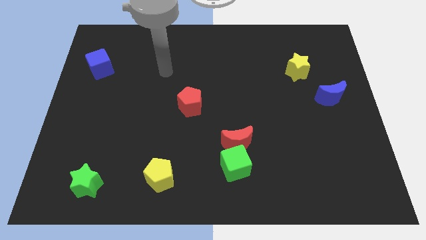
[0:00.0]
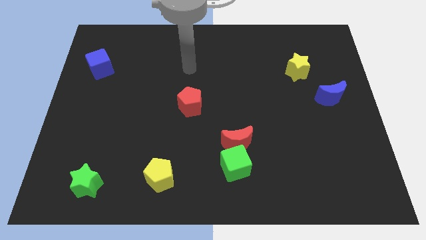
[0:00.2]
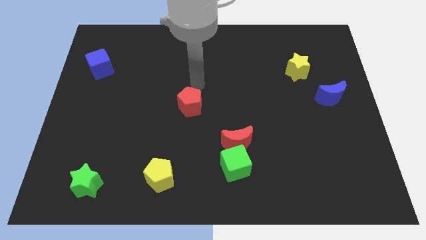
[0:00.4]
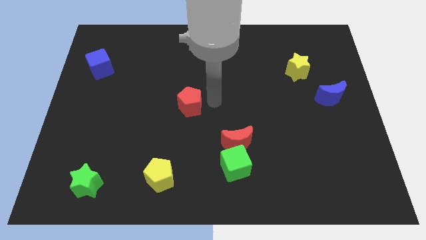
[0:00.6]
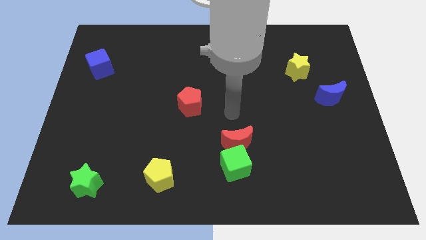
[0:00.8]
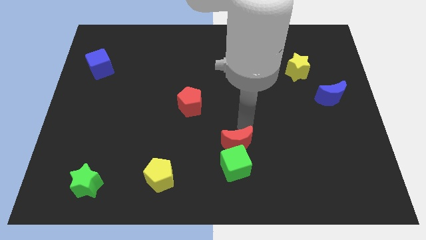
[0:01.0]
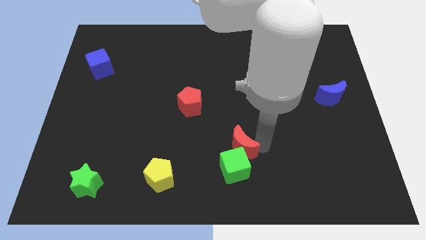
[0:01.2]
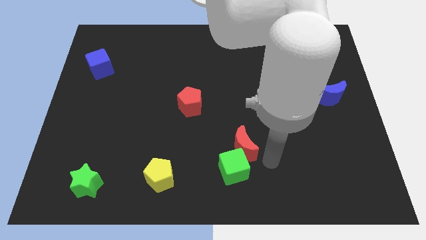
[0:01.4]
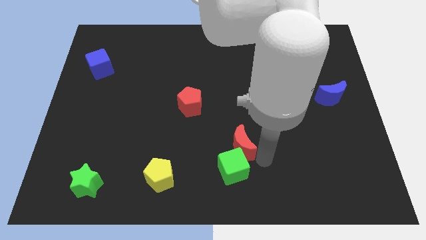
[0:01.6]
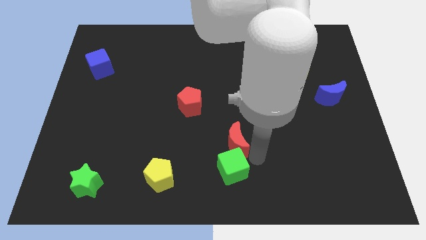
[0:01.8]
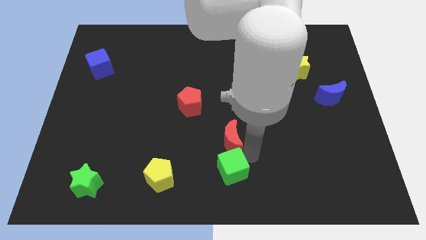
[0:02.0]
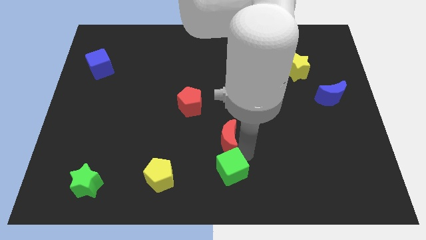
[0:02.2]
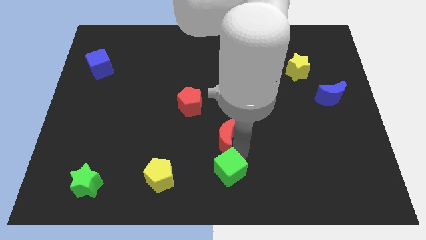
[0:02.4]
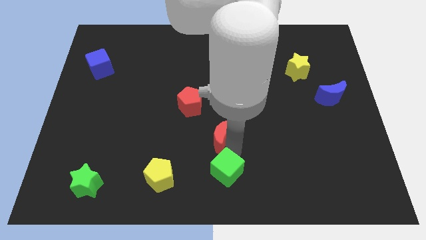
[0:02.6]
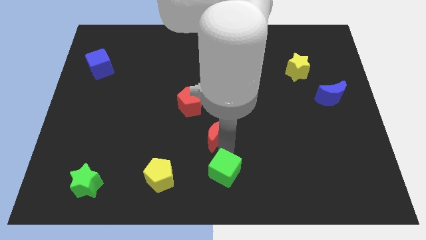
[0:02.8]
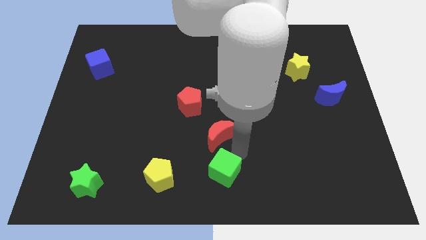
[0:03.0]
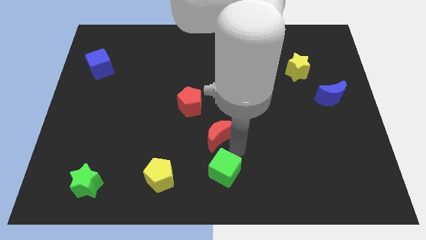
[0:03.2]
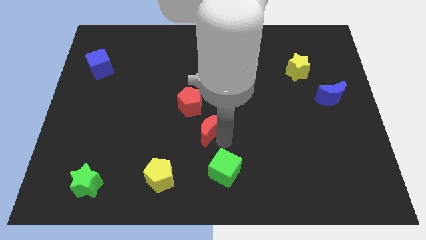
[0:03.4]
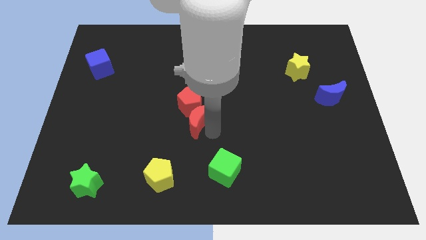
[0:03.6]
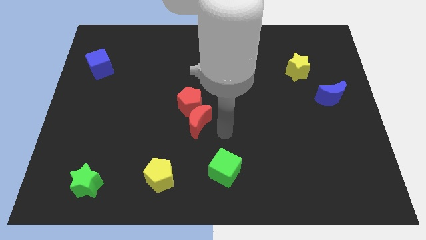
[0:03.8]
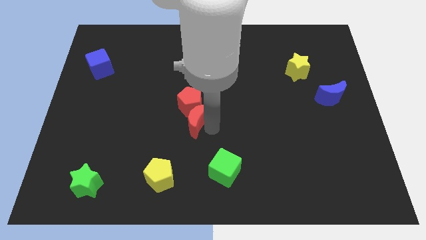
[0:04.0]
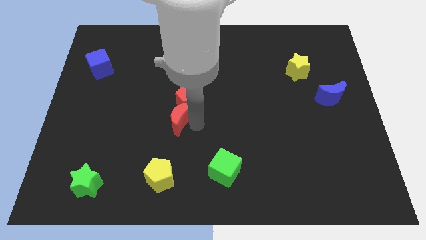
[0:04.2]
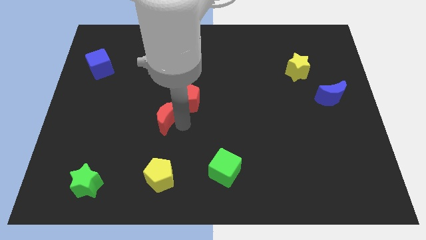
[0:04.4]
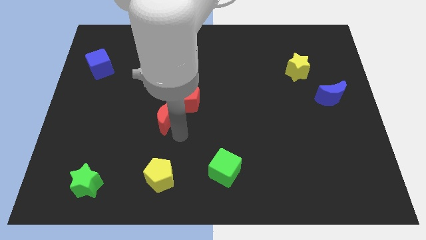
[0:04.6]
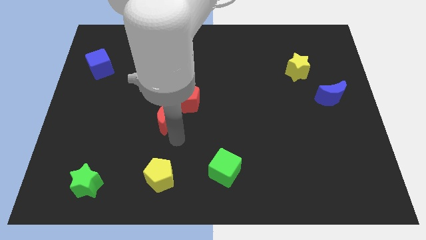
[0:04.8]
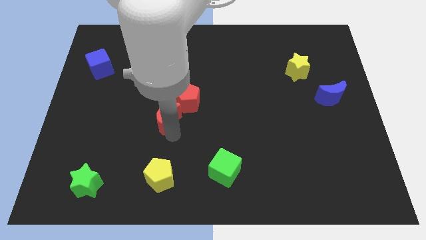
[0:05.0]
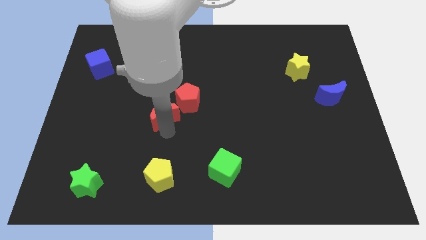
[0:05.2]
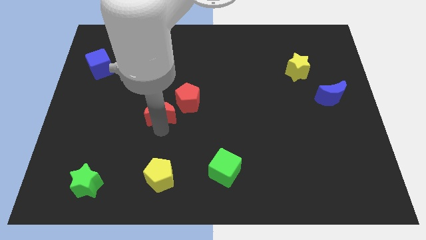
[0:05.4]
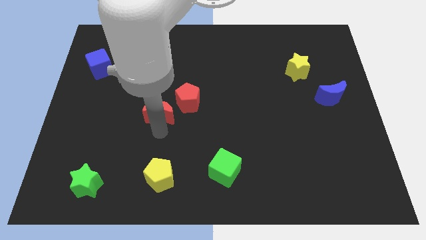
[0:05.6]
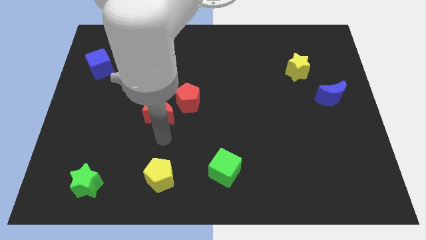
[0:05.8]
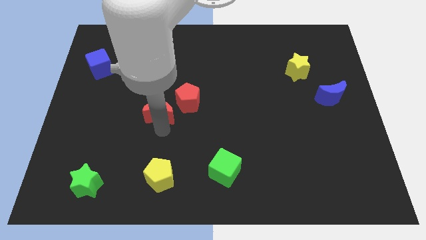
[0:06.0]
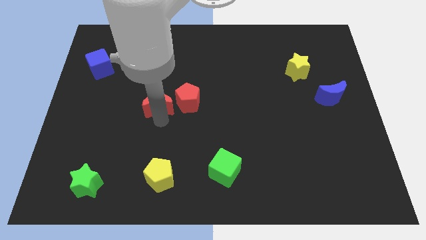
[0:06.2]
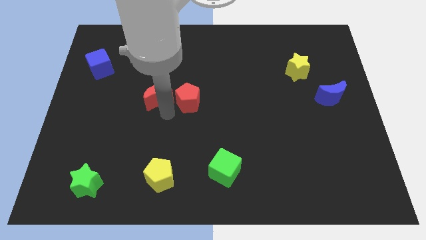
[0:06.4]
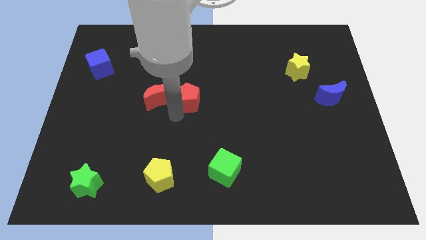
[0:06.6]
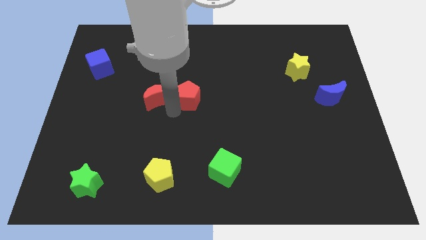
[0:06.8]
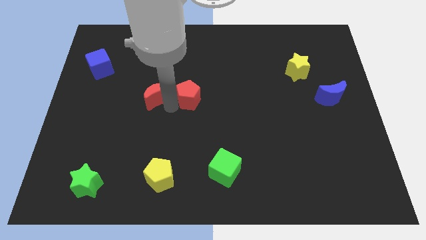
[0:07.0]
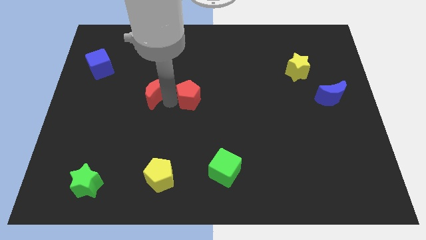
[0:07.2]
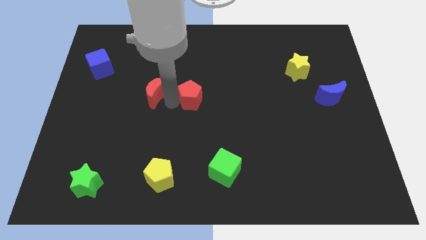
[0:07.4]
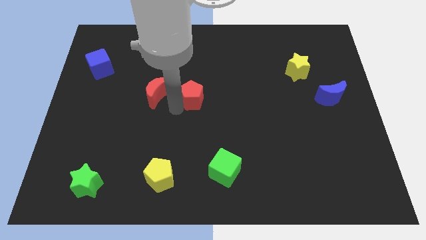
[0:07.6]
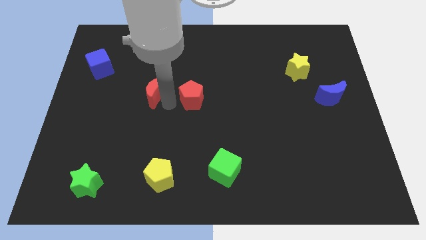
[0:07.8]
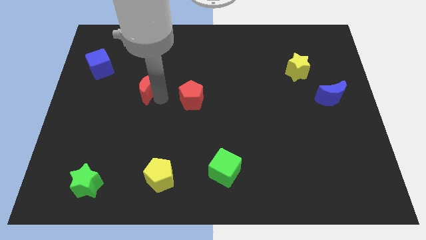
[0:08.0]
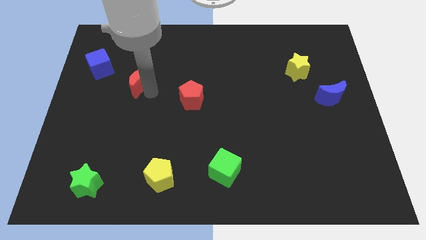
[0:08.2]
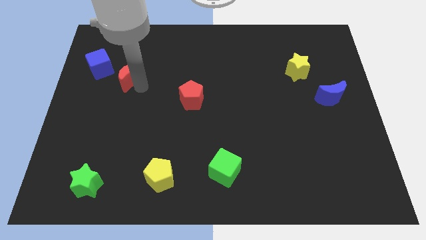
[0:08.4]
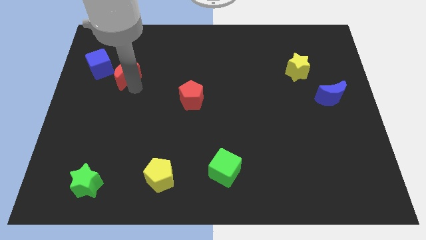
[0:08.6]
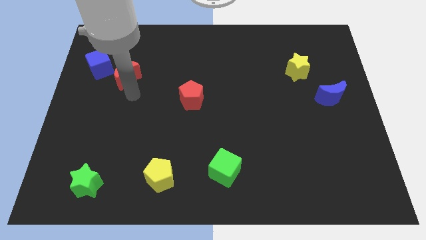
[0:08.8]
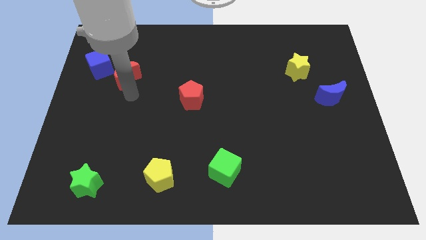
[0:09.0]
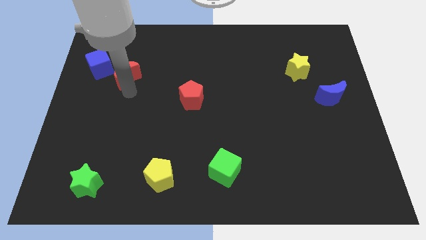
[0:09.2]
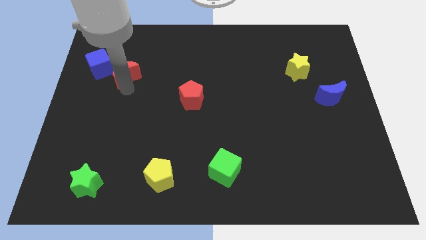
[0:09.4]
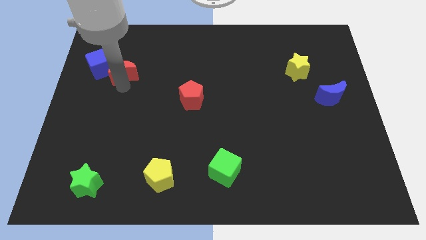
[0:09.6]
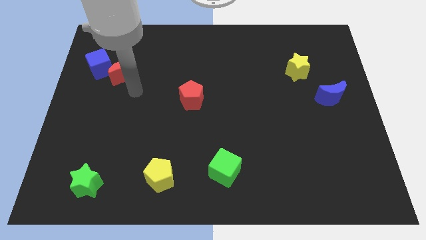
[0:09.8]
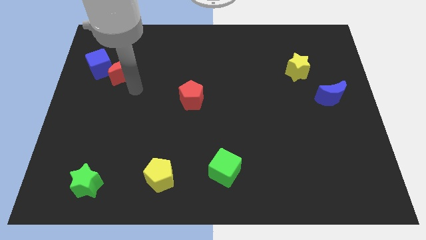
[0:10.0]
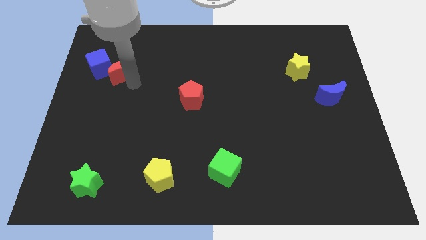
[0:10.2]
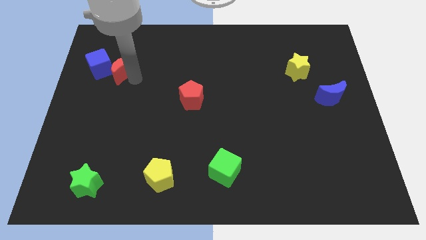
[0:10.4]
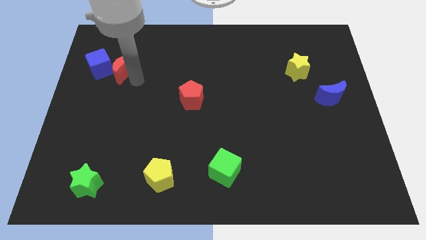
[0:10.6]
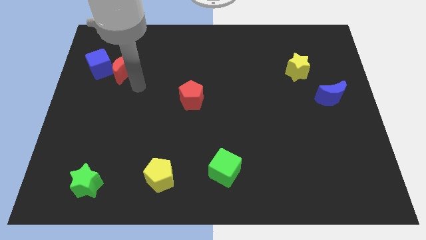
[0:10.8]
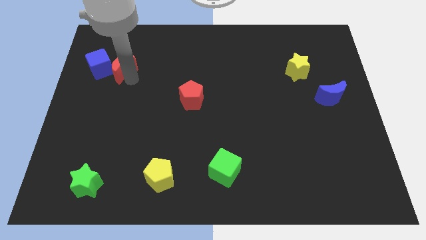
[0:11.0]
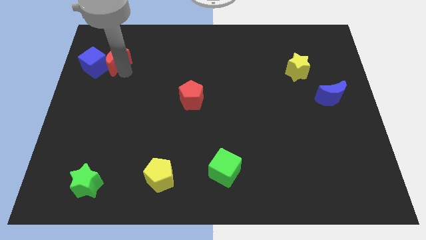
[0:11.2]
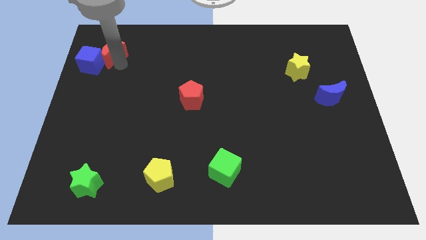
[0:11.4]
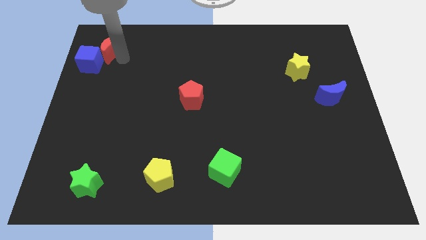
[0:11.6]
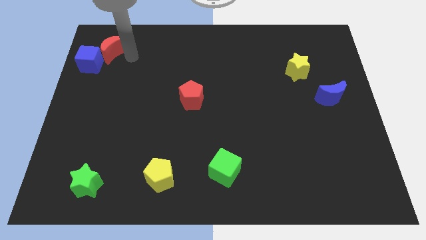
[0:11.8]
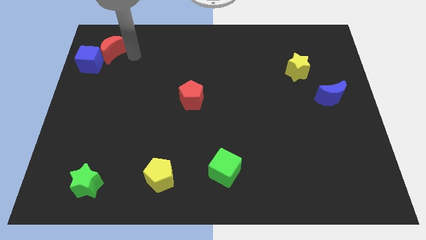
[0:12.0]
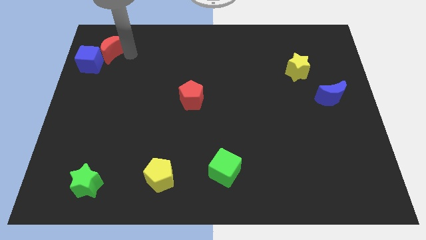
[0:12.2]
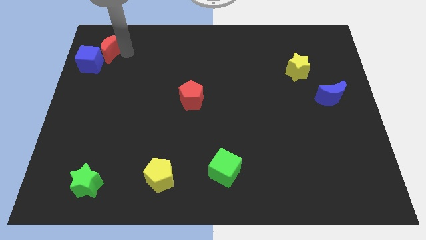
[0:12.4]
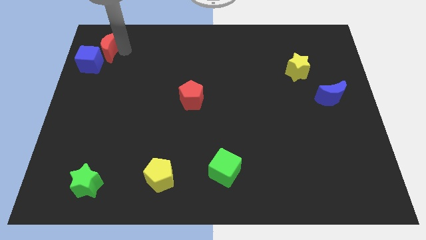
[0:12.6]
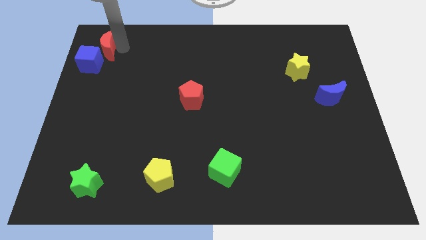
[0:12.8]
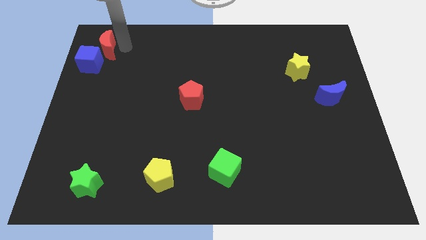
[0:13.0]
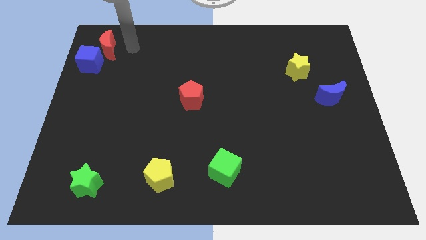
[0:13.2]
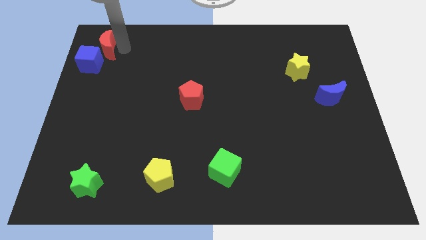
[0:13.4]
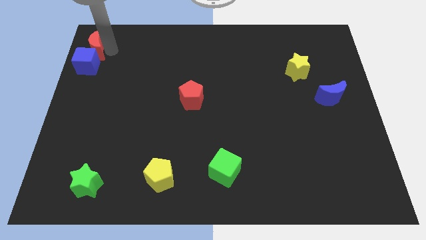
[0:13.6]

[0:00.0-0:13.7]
push the red moon to the top left

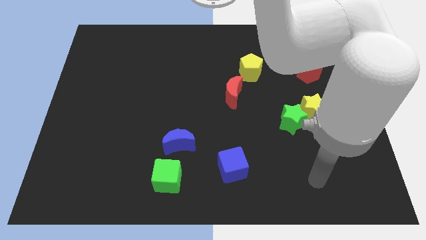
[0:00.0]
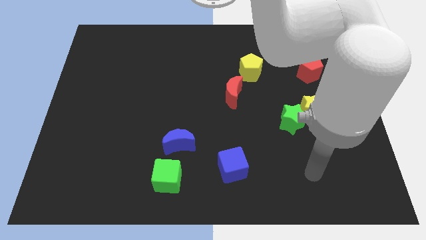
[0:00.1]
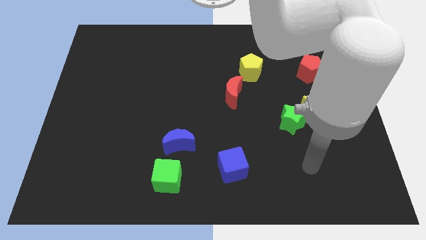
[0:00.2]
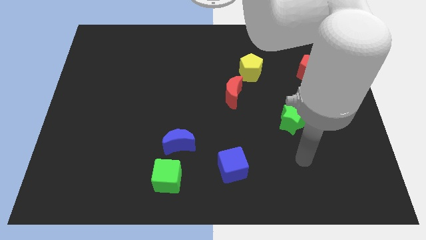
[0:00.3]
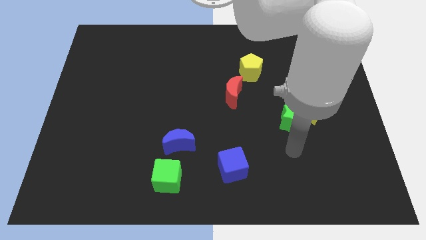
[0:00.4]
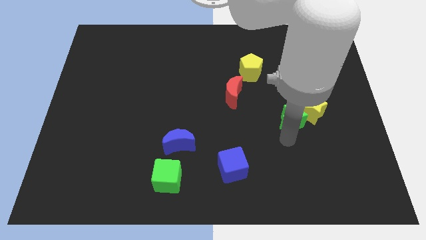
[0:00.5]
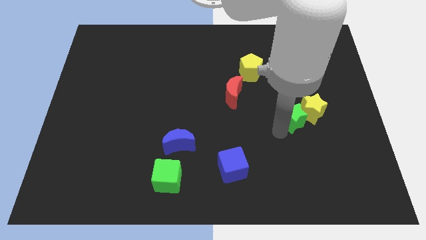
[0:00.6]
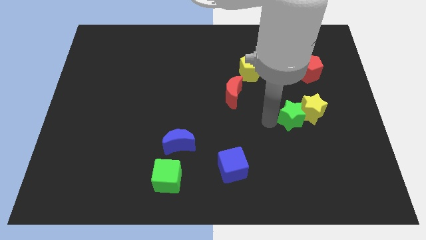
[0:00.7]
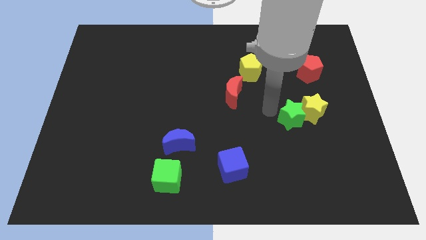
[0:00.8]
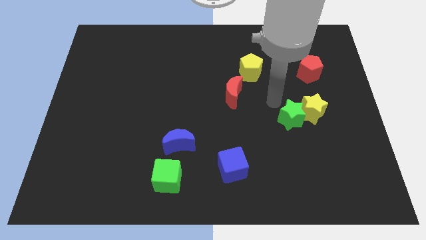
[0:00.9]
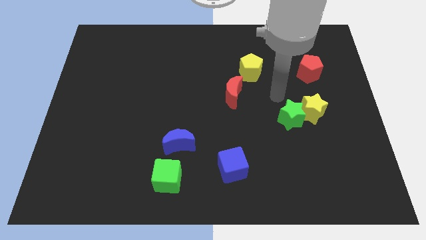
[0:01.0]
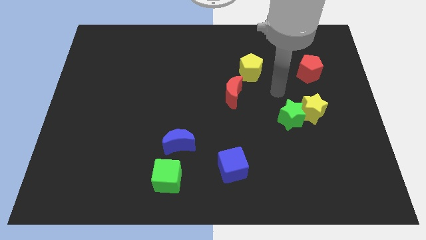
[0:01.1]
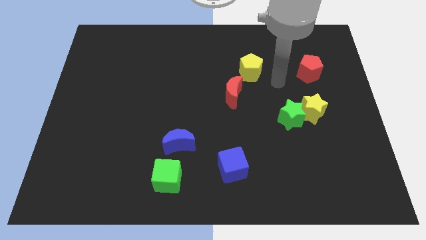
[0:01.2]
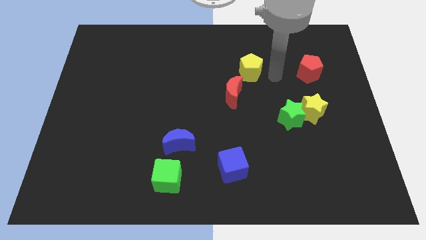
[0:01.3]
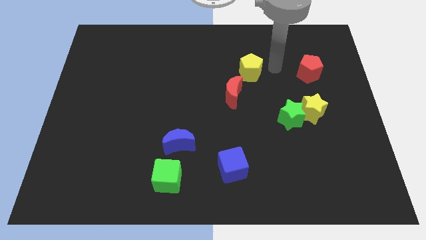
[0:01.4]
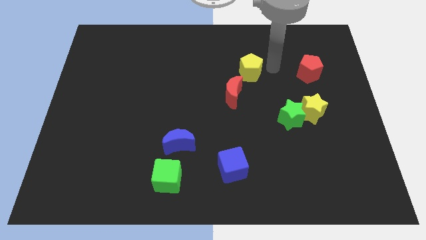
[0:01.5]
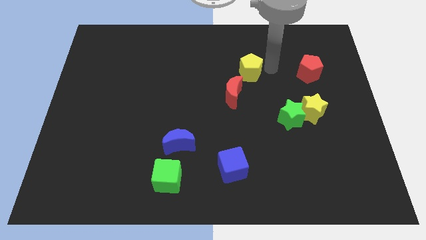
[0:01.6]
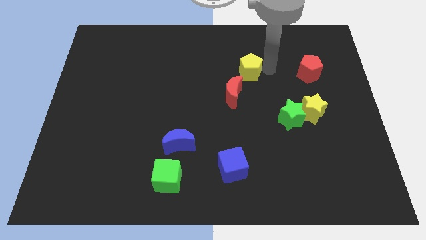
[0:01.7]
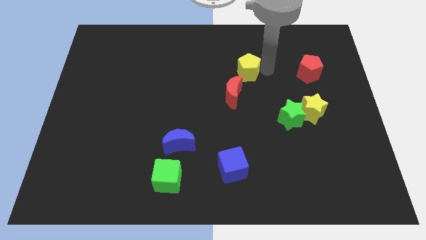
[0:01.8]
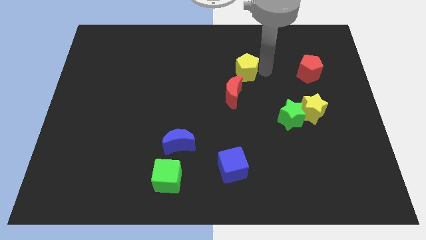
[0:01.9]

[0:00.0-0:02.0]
push the yellow pentagon to the middle of the board
